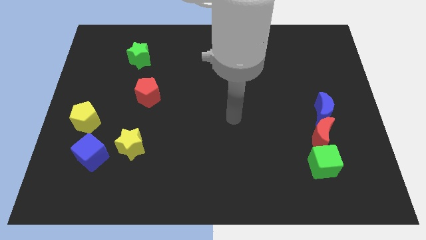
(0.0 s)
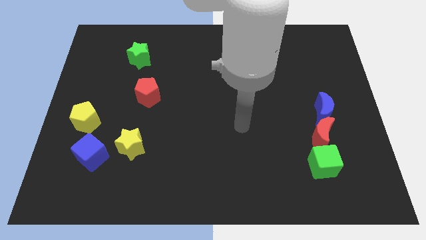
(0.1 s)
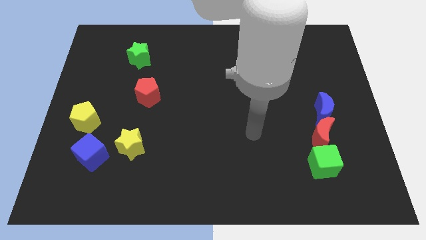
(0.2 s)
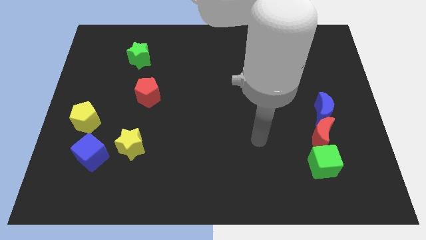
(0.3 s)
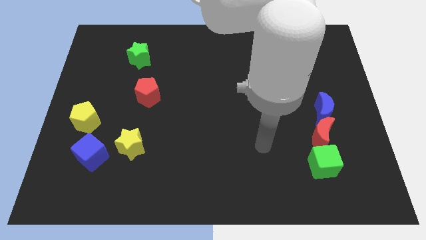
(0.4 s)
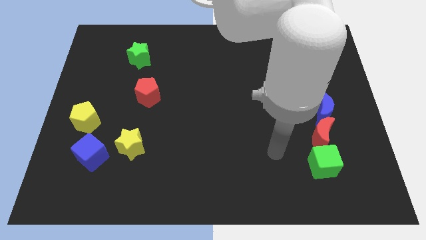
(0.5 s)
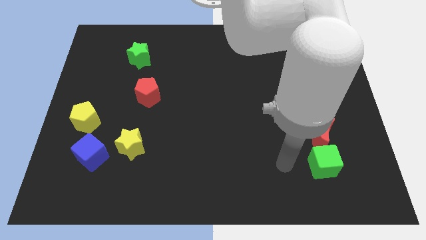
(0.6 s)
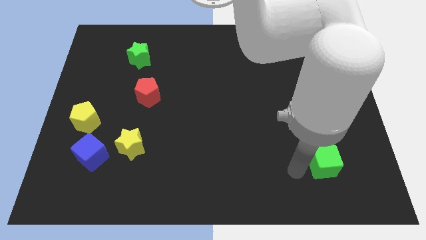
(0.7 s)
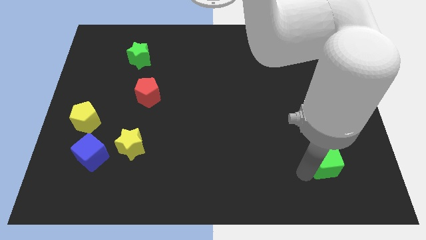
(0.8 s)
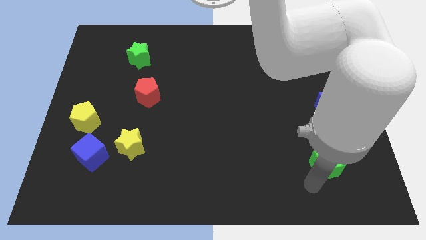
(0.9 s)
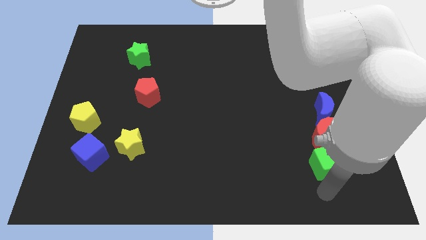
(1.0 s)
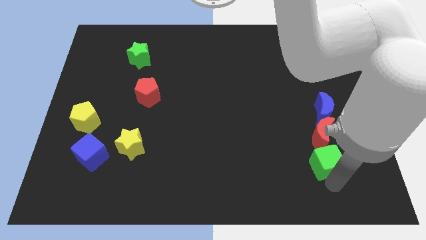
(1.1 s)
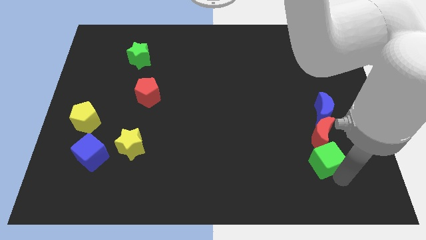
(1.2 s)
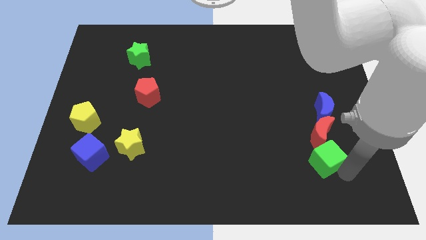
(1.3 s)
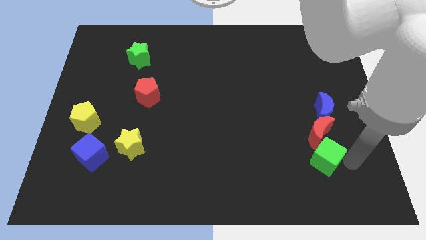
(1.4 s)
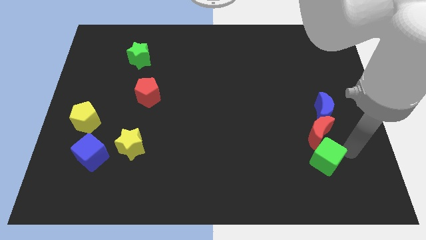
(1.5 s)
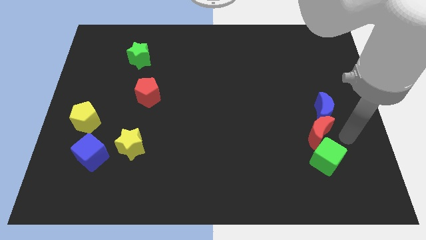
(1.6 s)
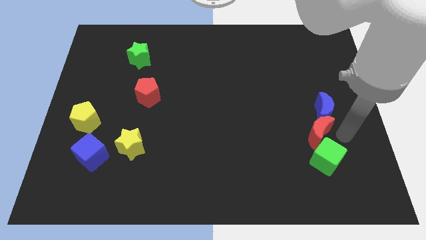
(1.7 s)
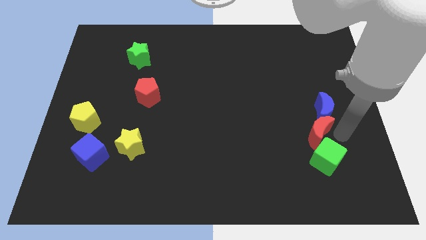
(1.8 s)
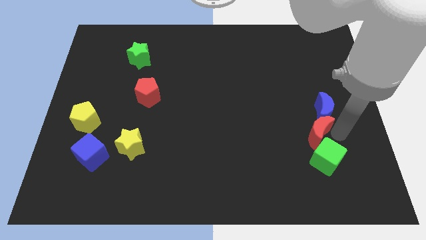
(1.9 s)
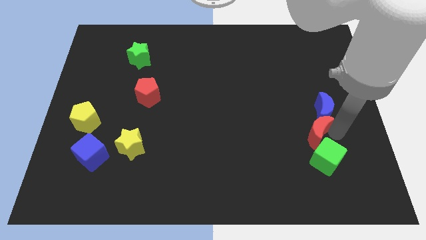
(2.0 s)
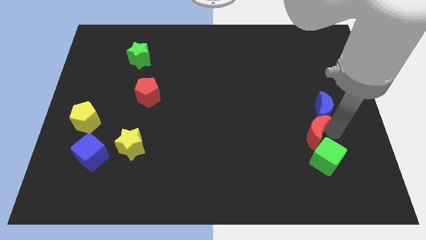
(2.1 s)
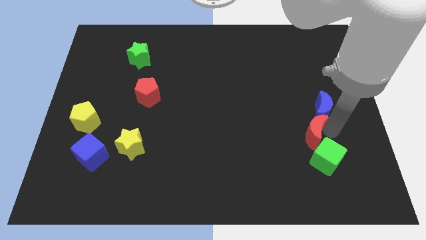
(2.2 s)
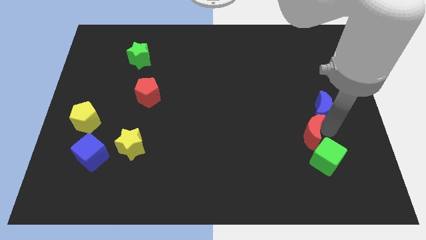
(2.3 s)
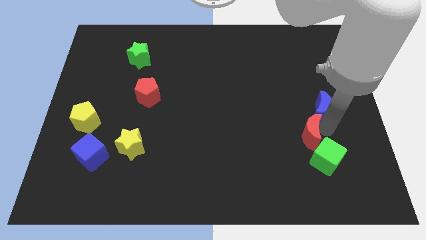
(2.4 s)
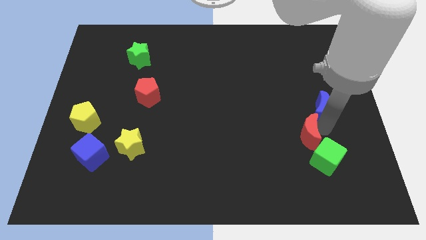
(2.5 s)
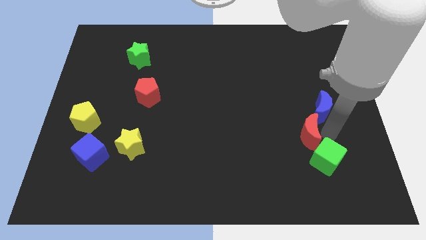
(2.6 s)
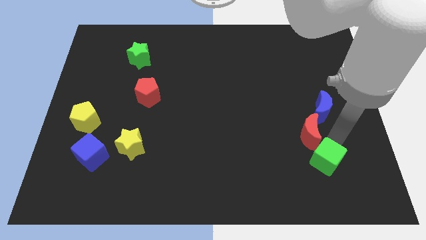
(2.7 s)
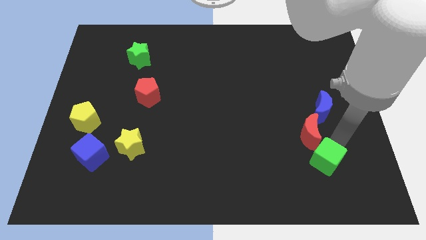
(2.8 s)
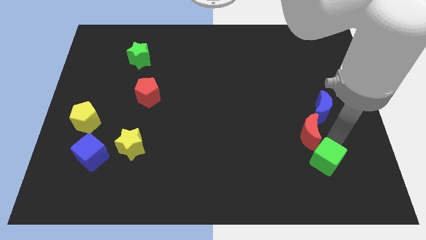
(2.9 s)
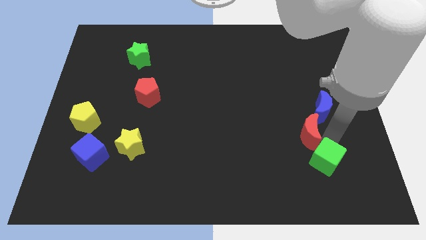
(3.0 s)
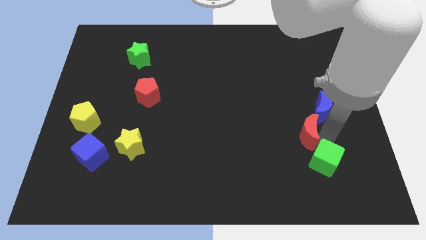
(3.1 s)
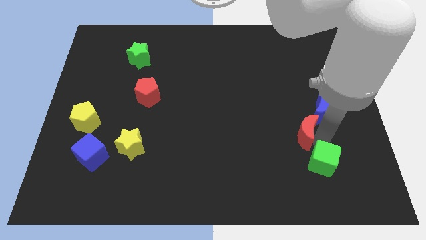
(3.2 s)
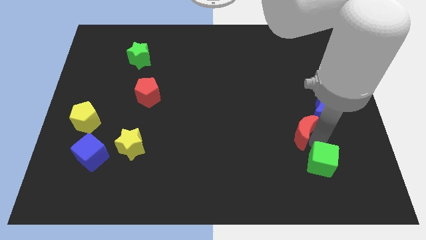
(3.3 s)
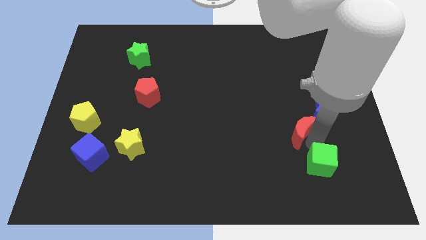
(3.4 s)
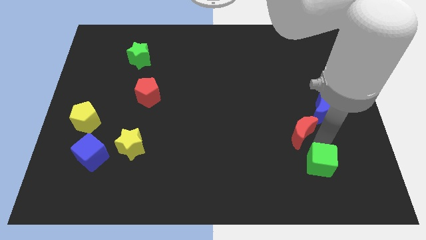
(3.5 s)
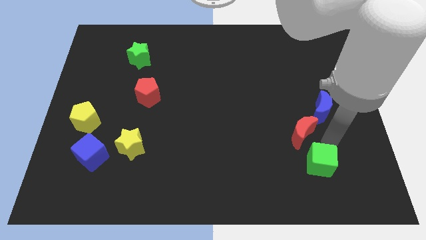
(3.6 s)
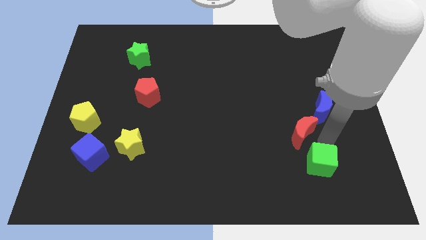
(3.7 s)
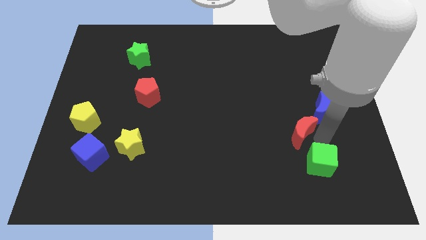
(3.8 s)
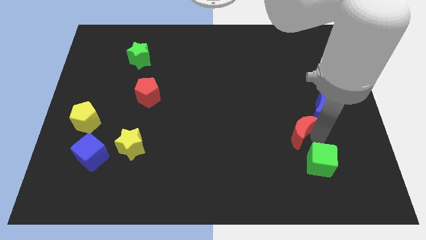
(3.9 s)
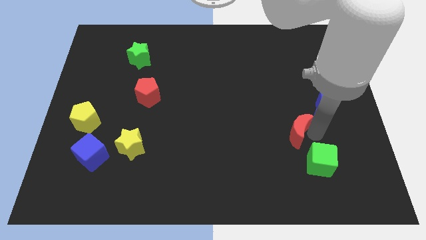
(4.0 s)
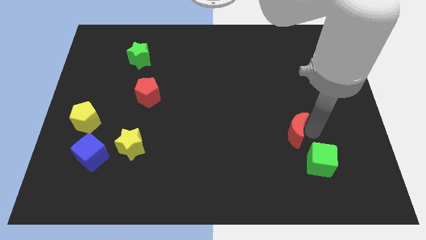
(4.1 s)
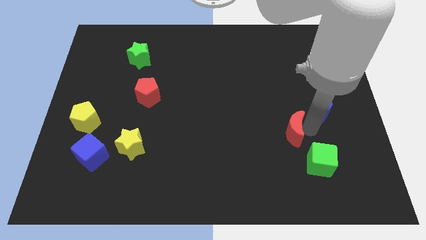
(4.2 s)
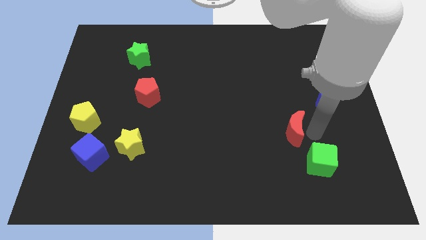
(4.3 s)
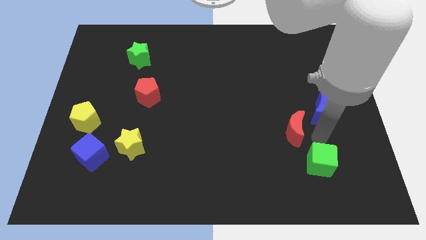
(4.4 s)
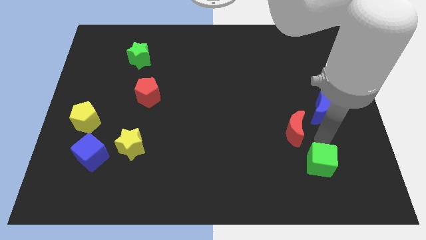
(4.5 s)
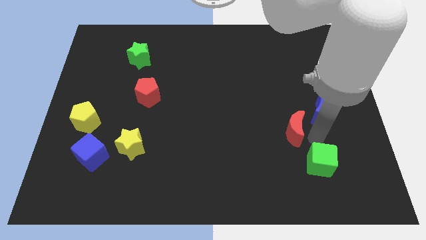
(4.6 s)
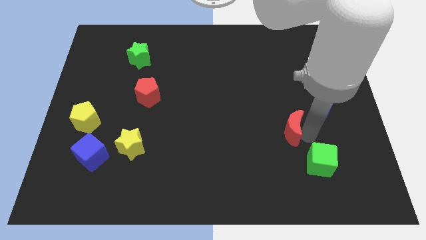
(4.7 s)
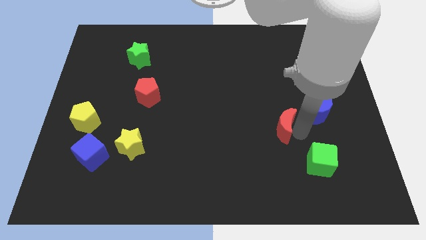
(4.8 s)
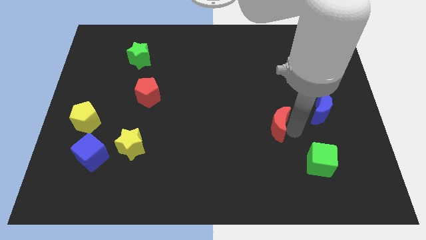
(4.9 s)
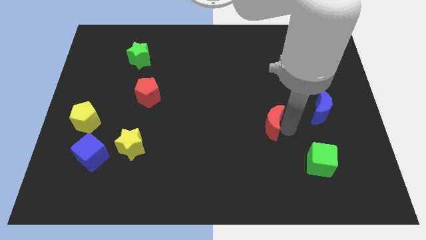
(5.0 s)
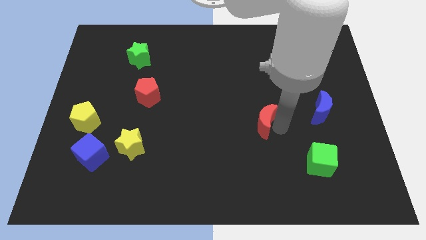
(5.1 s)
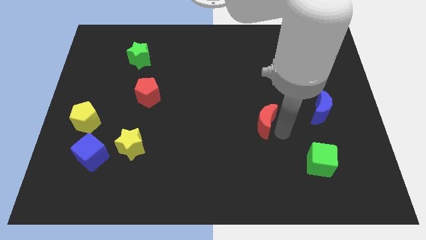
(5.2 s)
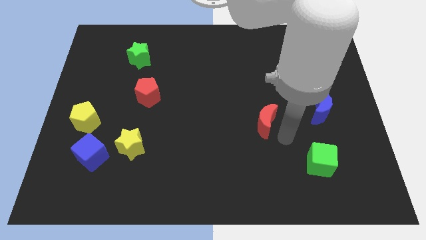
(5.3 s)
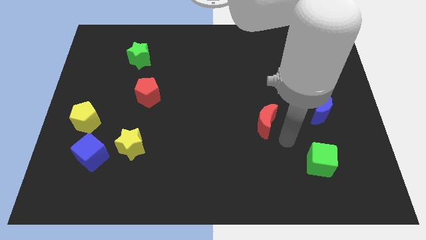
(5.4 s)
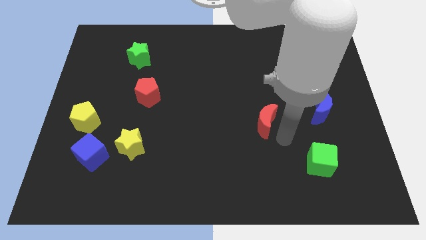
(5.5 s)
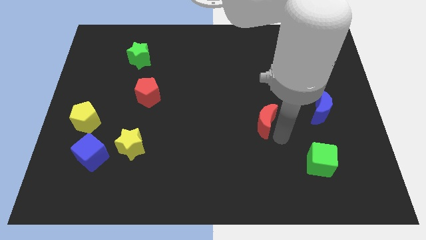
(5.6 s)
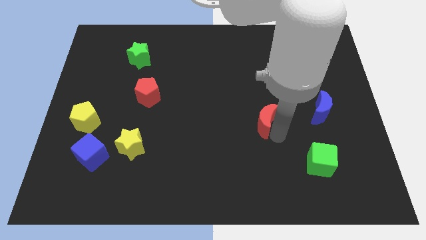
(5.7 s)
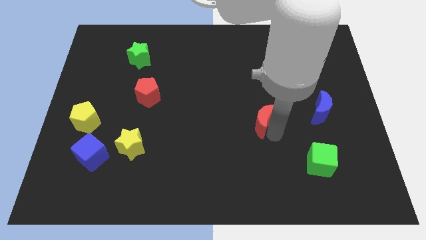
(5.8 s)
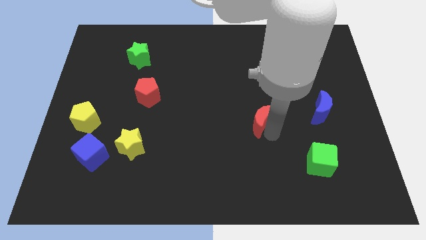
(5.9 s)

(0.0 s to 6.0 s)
slide the red moon to the center

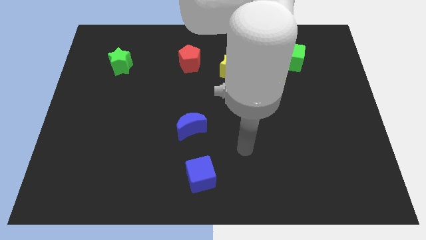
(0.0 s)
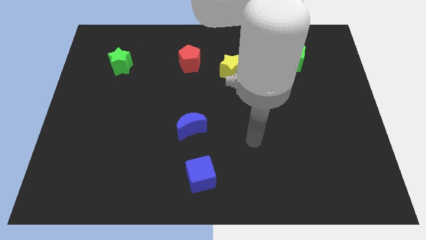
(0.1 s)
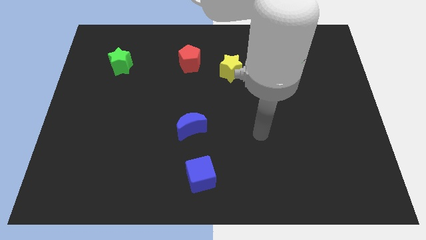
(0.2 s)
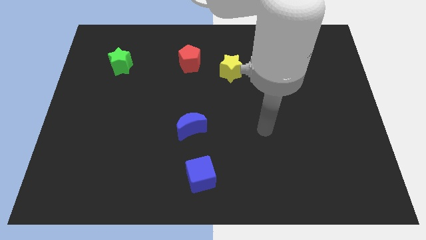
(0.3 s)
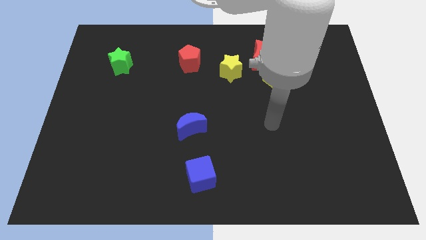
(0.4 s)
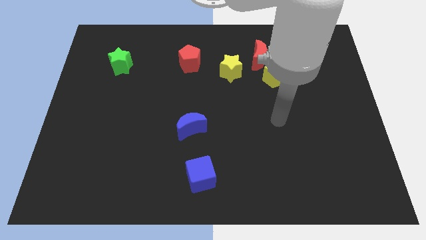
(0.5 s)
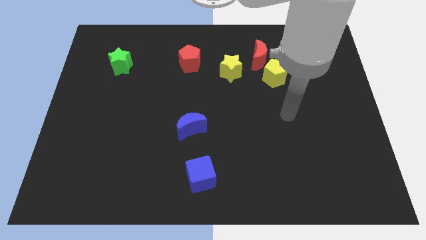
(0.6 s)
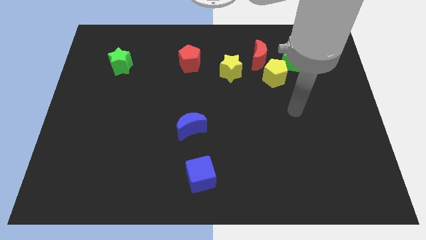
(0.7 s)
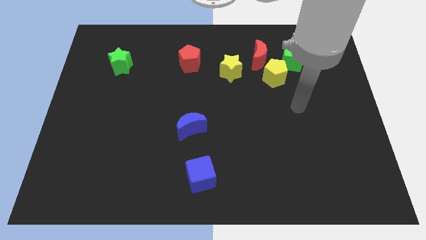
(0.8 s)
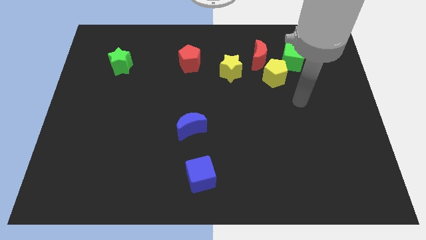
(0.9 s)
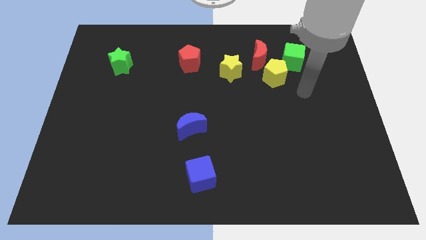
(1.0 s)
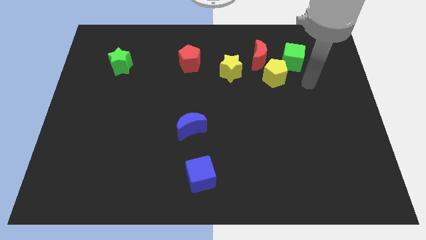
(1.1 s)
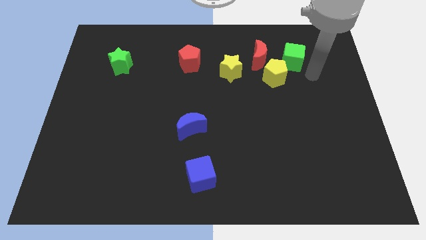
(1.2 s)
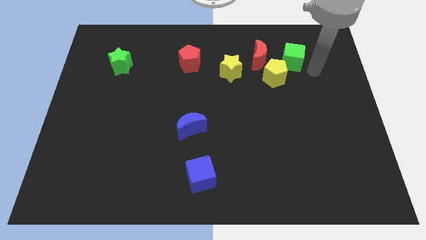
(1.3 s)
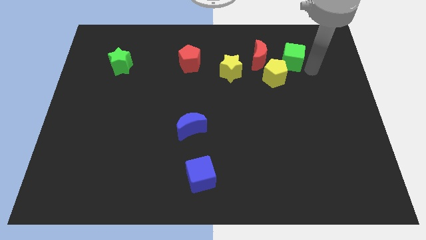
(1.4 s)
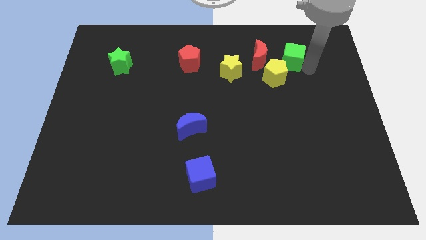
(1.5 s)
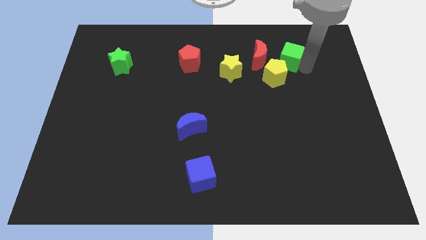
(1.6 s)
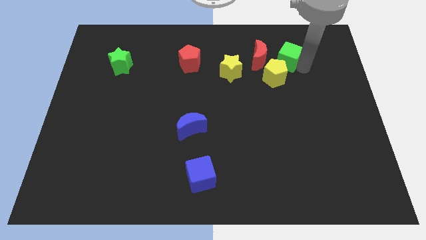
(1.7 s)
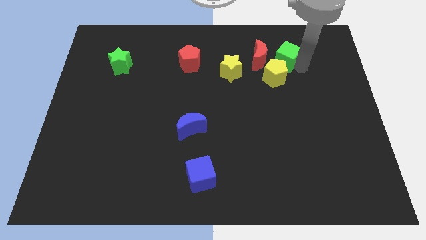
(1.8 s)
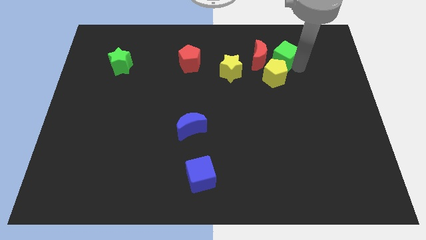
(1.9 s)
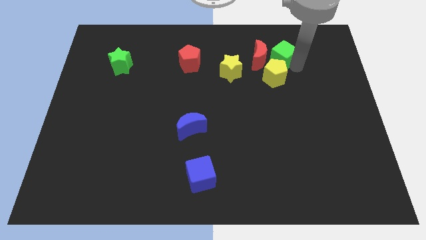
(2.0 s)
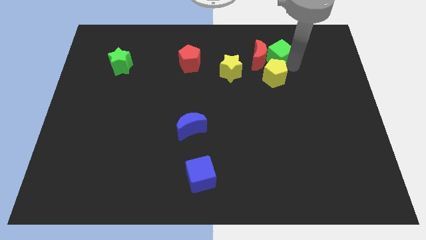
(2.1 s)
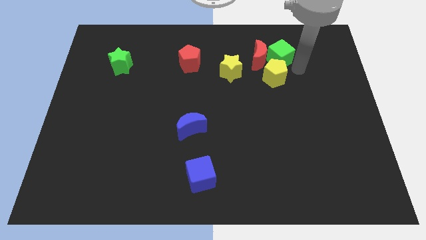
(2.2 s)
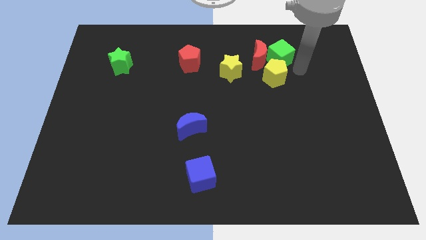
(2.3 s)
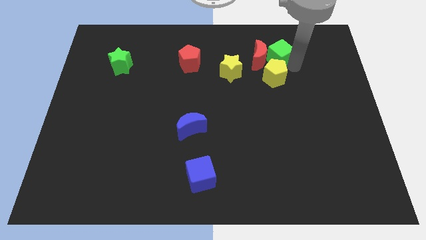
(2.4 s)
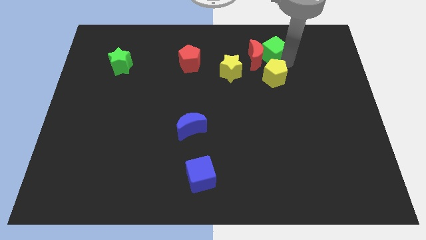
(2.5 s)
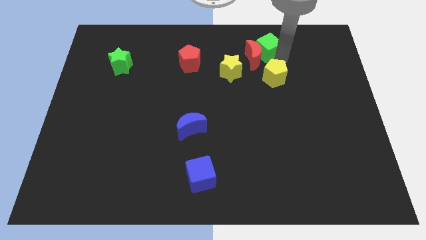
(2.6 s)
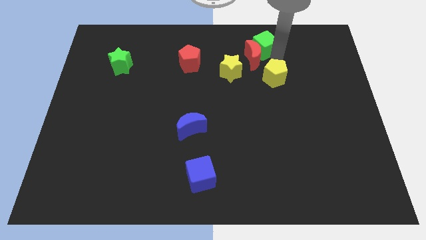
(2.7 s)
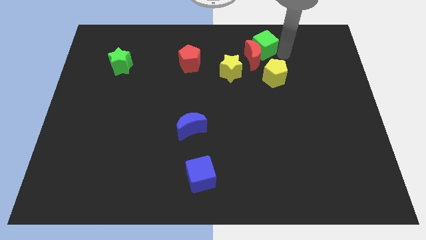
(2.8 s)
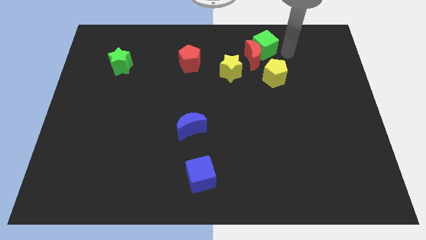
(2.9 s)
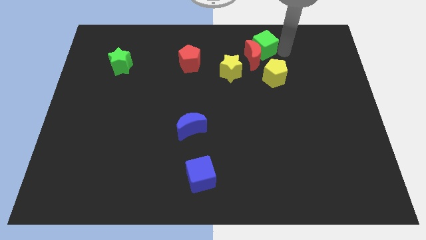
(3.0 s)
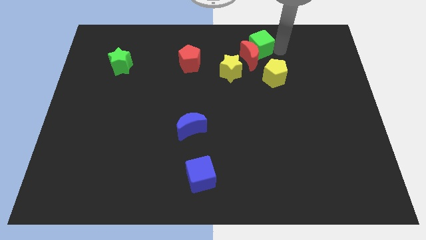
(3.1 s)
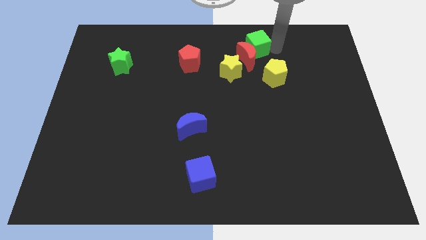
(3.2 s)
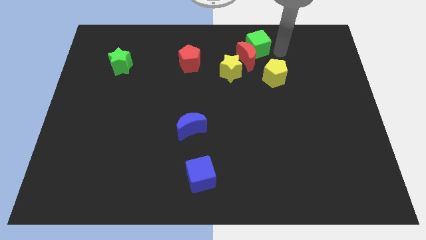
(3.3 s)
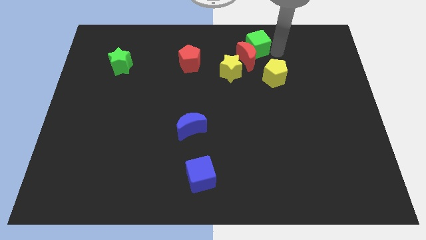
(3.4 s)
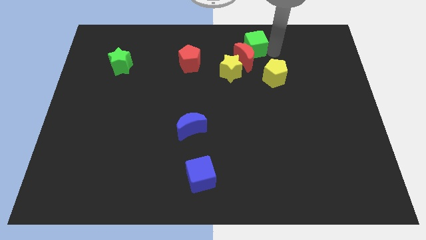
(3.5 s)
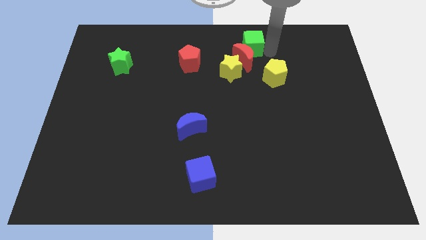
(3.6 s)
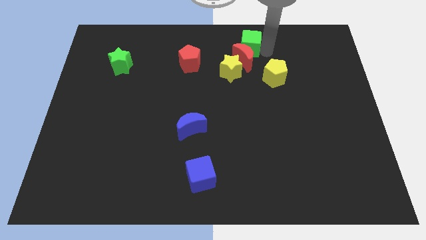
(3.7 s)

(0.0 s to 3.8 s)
put the green cube to the top
